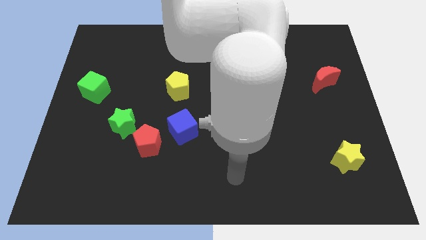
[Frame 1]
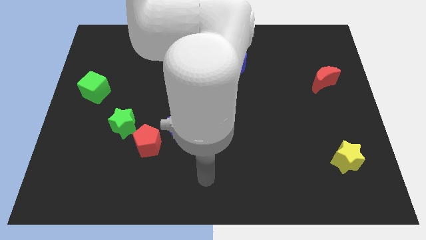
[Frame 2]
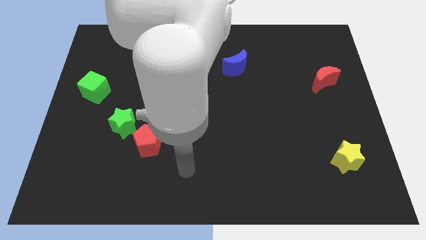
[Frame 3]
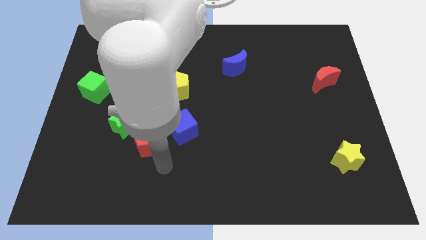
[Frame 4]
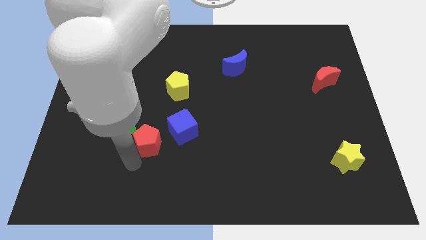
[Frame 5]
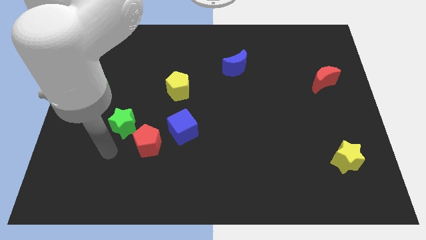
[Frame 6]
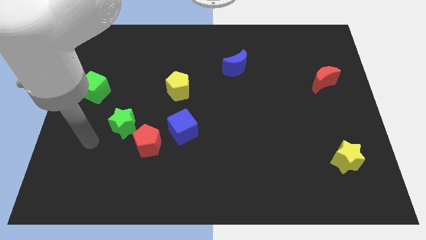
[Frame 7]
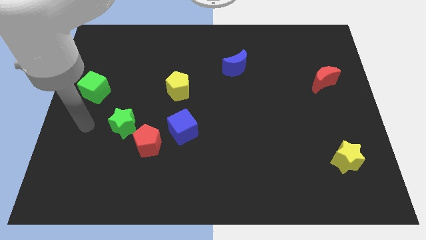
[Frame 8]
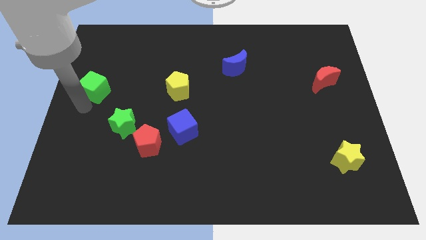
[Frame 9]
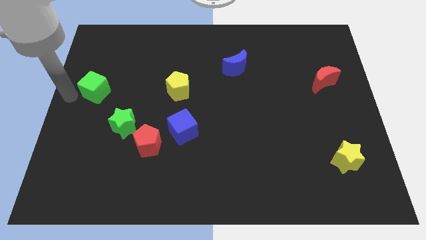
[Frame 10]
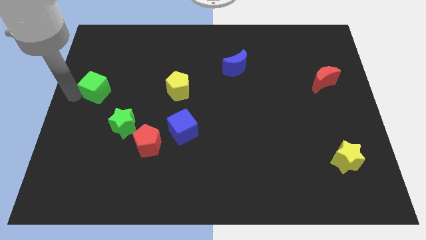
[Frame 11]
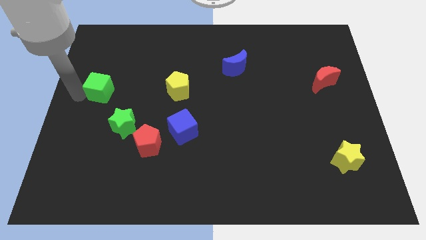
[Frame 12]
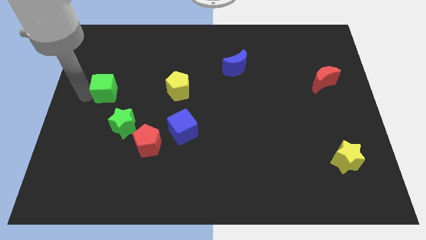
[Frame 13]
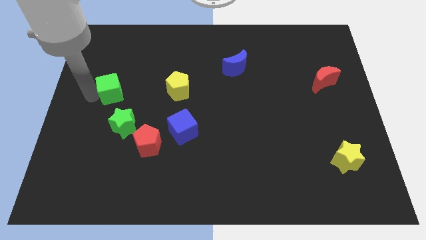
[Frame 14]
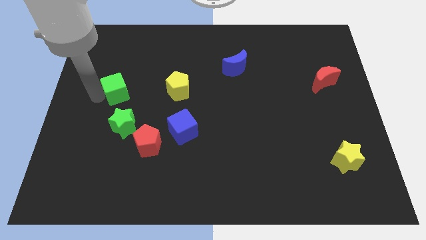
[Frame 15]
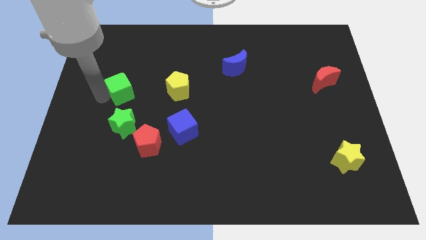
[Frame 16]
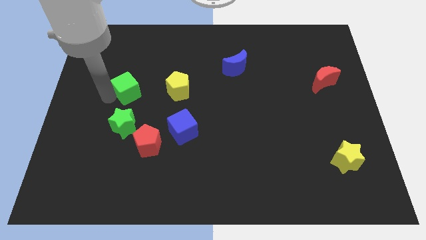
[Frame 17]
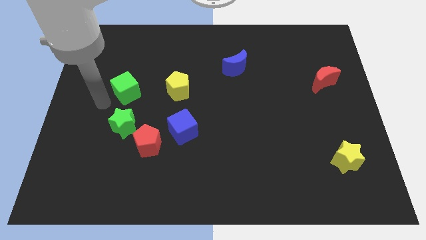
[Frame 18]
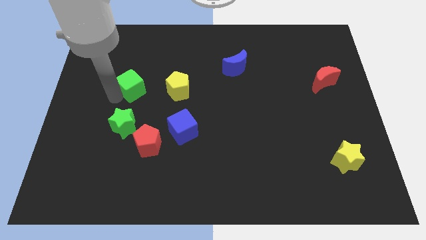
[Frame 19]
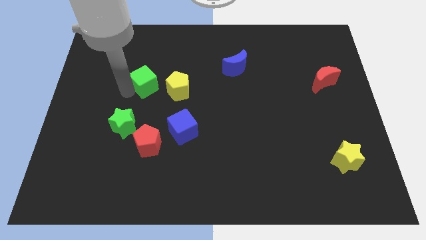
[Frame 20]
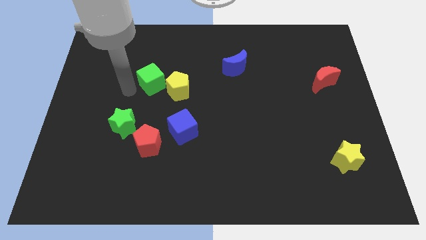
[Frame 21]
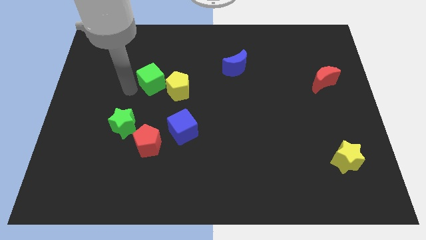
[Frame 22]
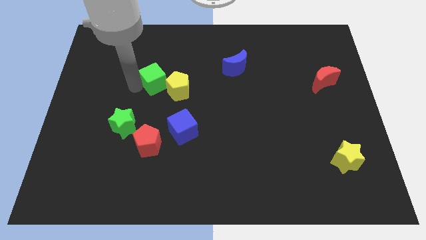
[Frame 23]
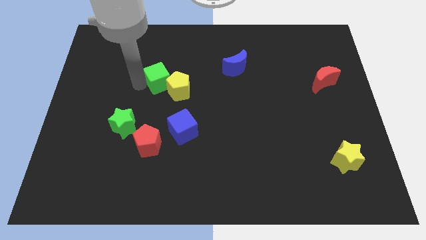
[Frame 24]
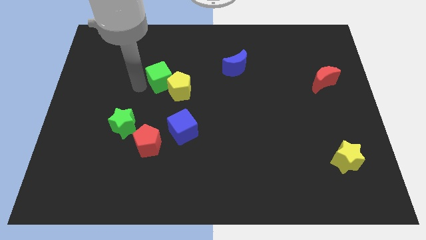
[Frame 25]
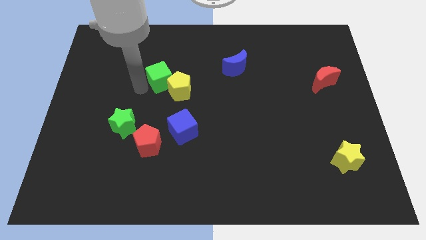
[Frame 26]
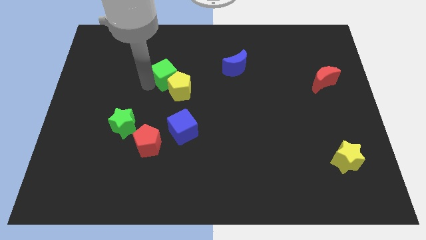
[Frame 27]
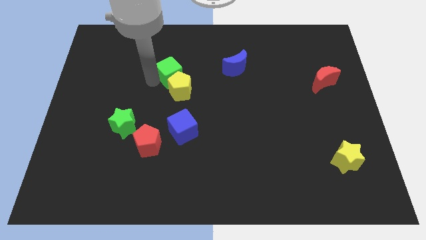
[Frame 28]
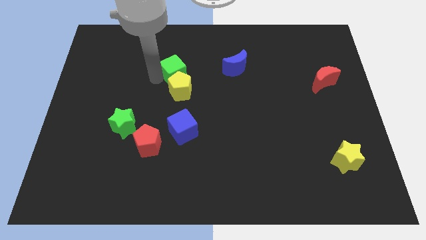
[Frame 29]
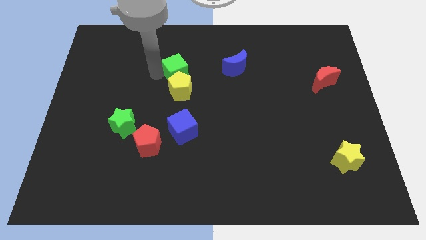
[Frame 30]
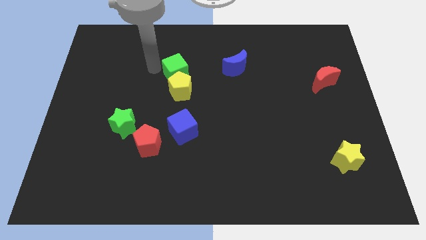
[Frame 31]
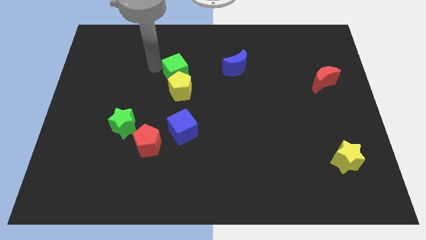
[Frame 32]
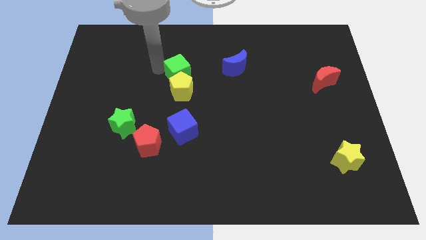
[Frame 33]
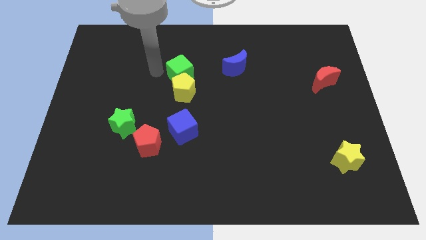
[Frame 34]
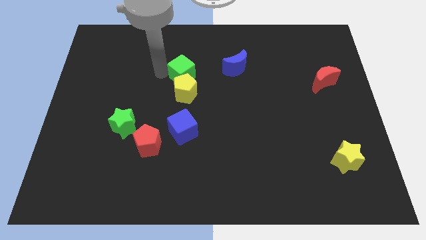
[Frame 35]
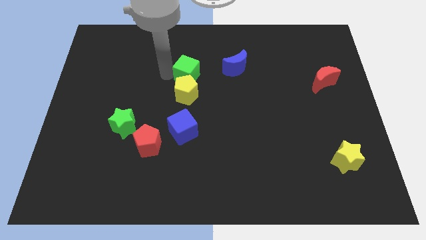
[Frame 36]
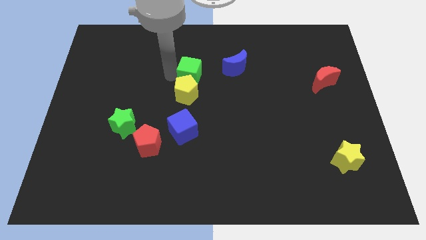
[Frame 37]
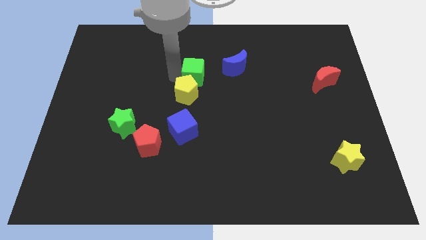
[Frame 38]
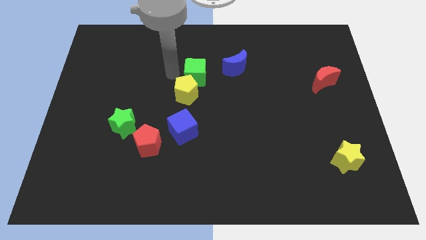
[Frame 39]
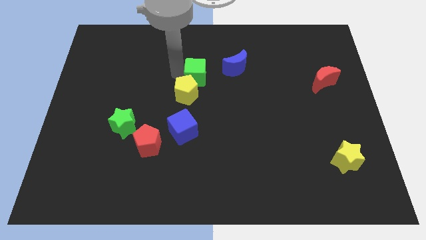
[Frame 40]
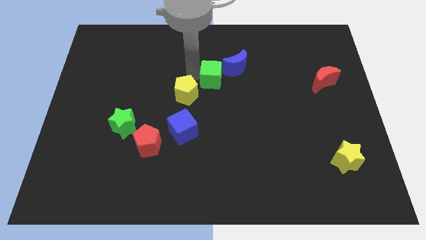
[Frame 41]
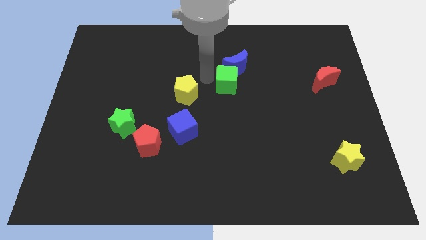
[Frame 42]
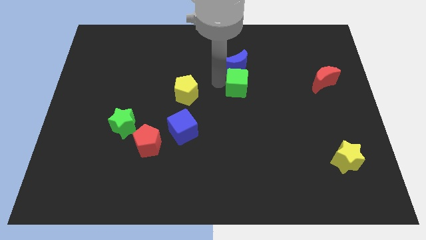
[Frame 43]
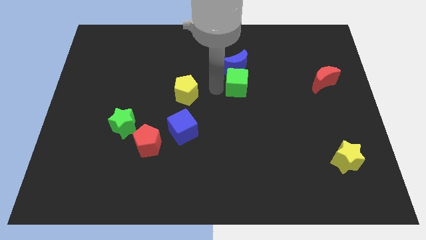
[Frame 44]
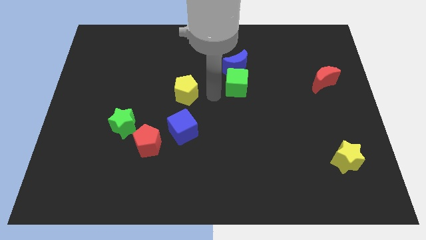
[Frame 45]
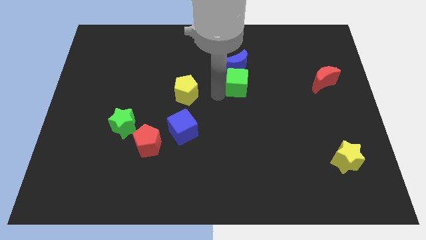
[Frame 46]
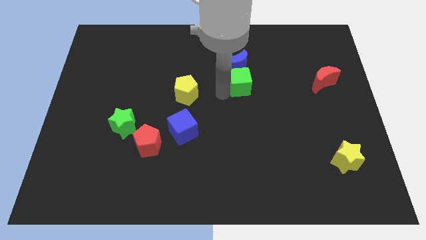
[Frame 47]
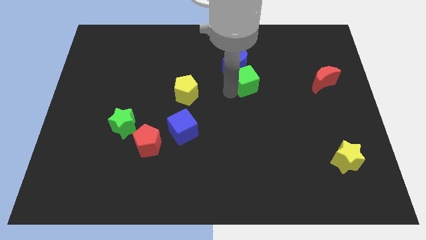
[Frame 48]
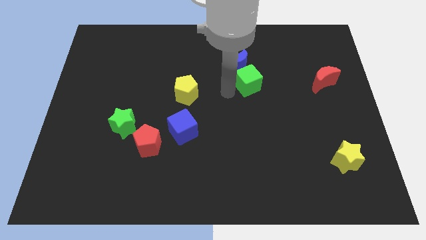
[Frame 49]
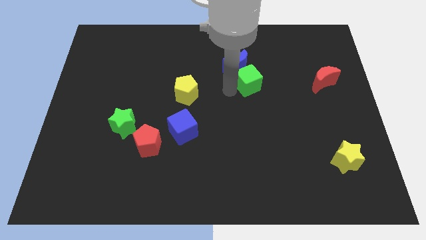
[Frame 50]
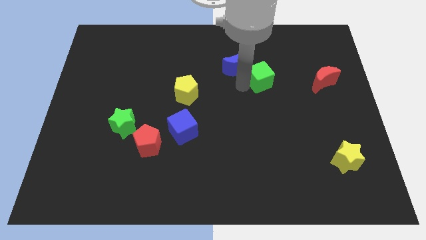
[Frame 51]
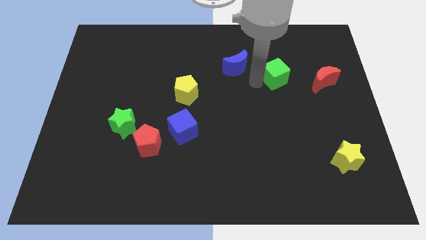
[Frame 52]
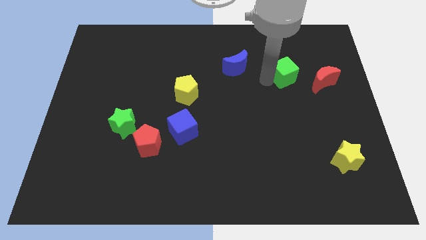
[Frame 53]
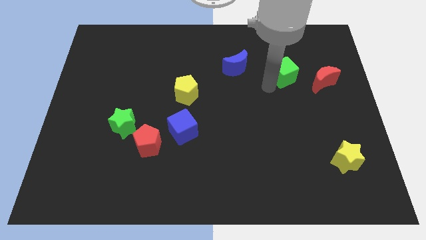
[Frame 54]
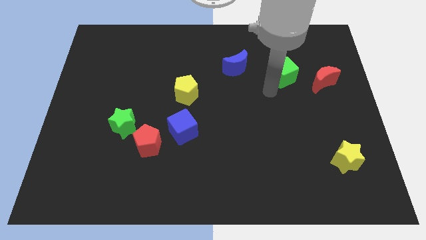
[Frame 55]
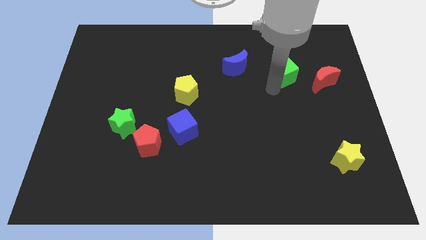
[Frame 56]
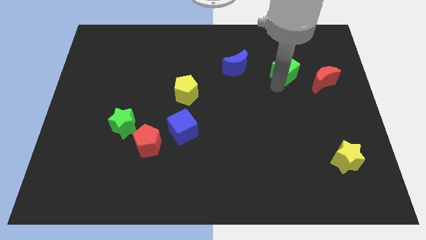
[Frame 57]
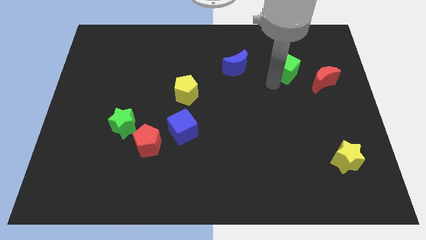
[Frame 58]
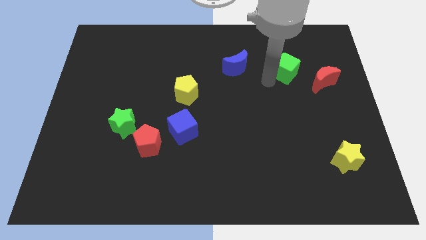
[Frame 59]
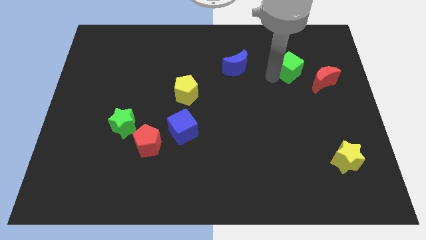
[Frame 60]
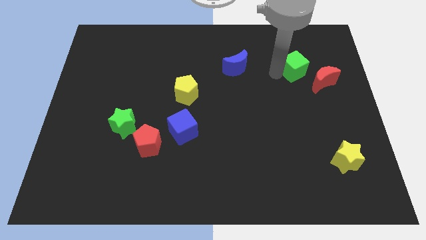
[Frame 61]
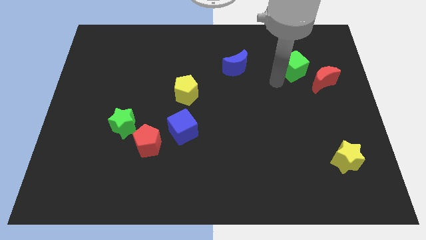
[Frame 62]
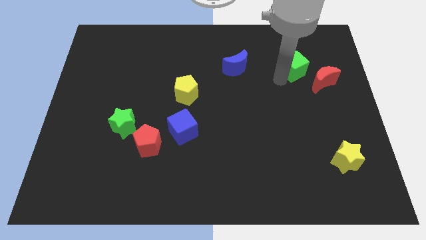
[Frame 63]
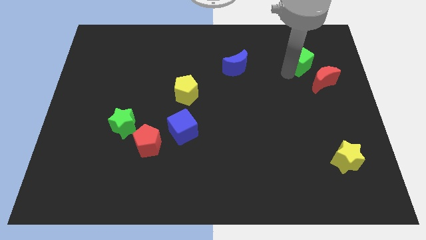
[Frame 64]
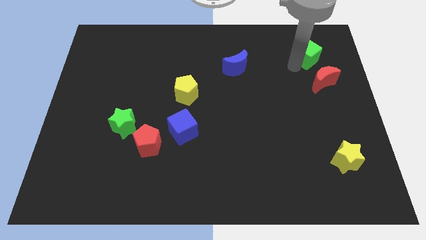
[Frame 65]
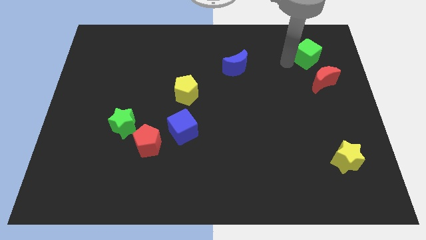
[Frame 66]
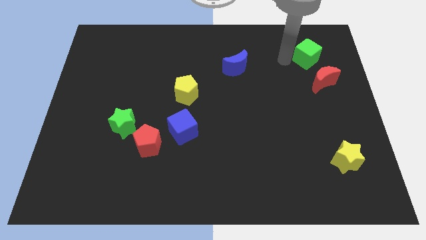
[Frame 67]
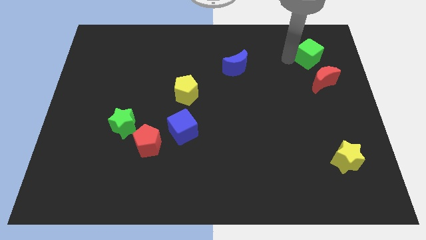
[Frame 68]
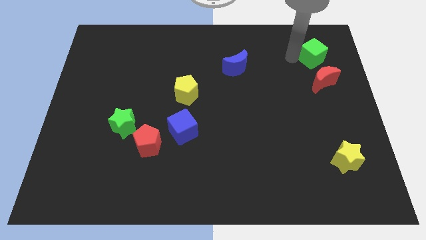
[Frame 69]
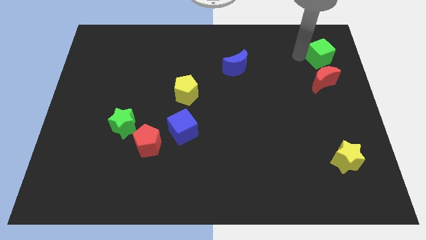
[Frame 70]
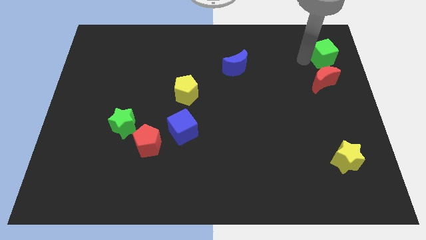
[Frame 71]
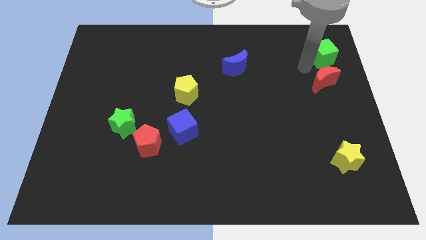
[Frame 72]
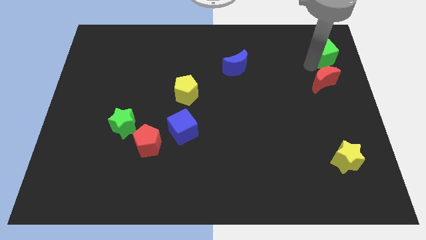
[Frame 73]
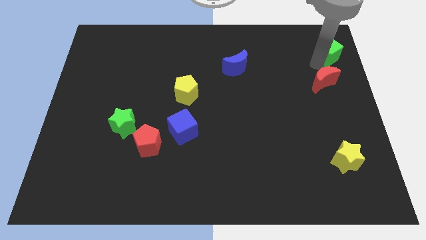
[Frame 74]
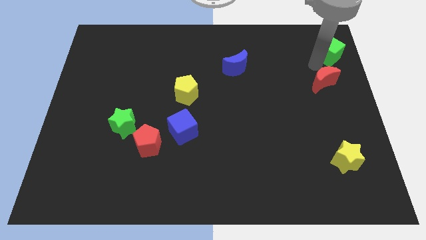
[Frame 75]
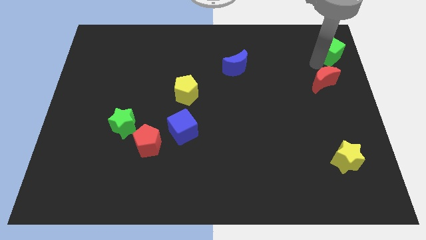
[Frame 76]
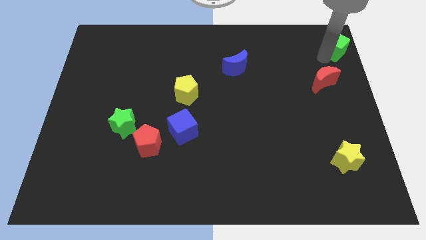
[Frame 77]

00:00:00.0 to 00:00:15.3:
put the green cube to the top right of the board
